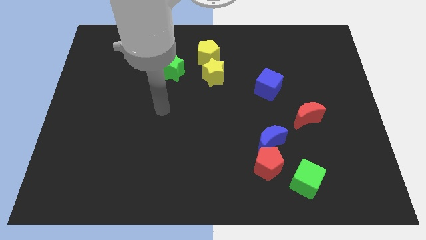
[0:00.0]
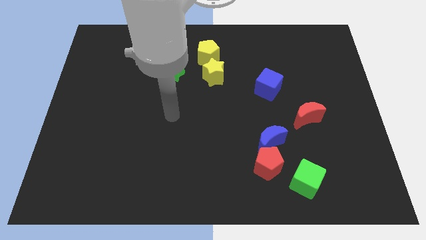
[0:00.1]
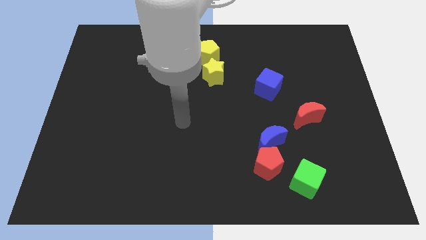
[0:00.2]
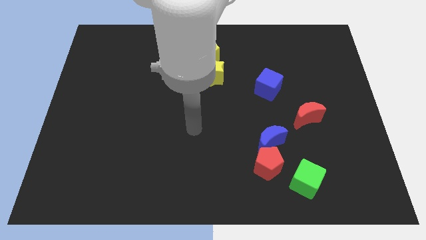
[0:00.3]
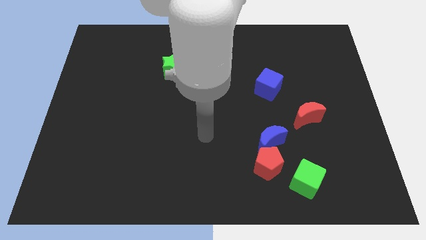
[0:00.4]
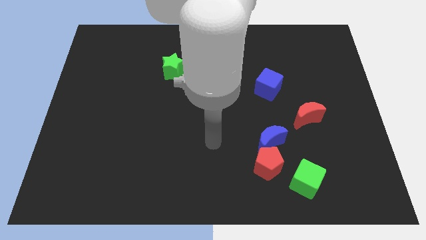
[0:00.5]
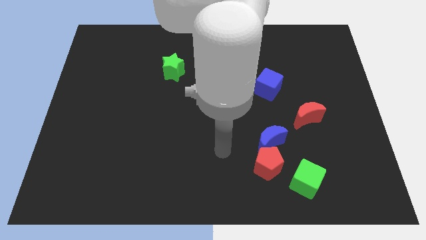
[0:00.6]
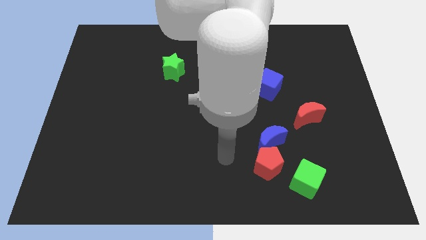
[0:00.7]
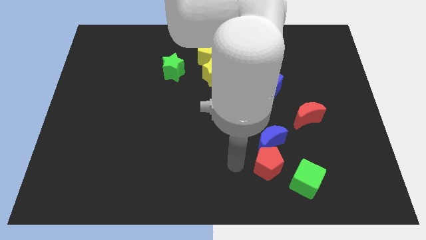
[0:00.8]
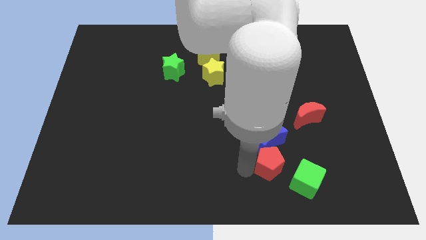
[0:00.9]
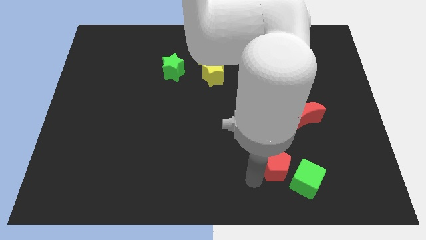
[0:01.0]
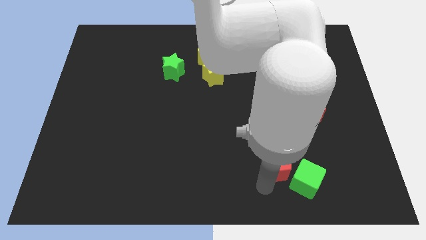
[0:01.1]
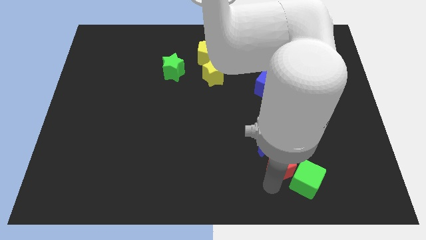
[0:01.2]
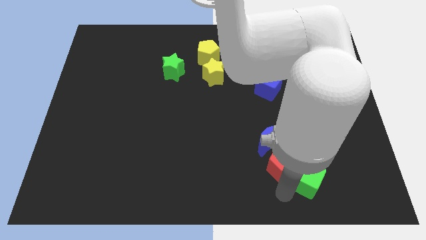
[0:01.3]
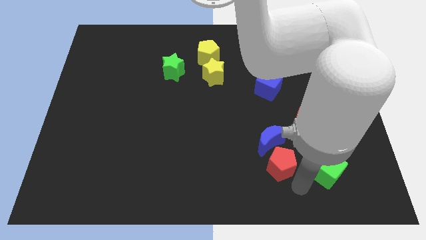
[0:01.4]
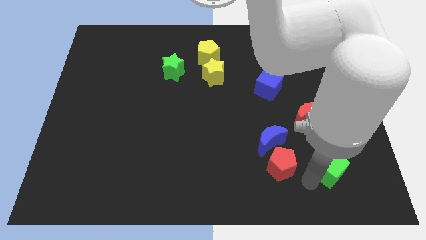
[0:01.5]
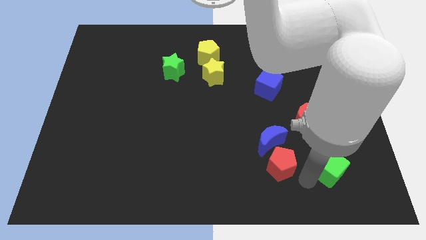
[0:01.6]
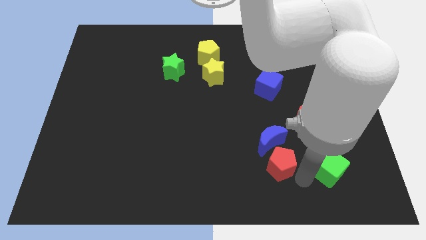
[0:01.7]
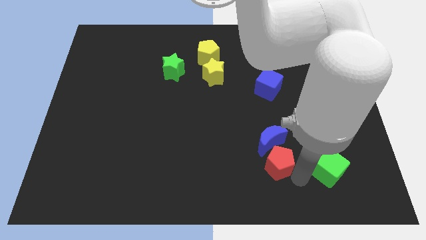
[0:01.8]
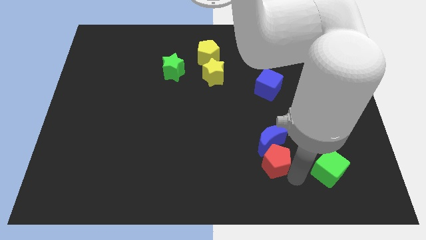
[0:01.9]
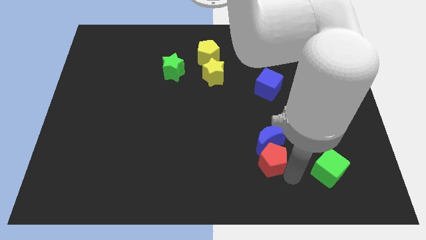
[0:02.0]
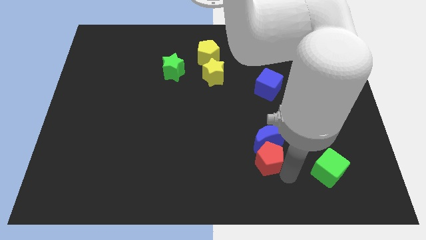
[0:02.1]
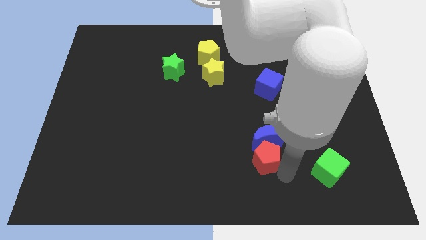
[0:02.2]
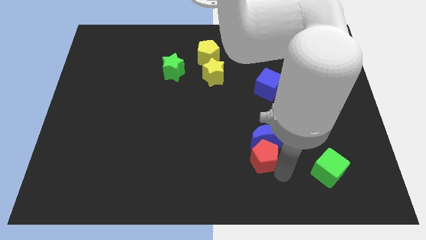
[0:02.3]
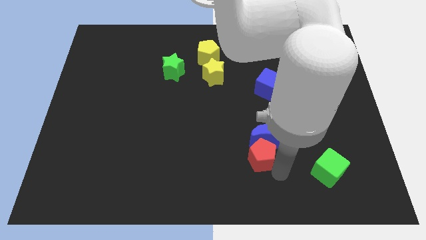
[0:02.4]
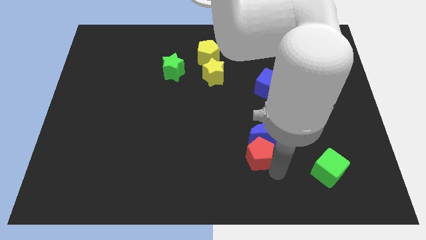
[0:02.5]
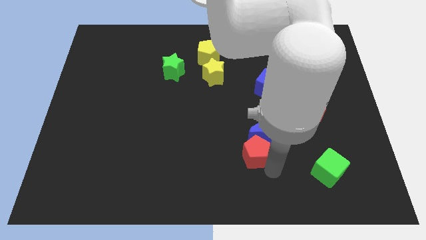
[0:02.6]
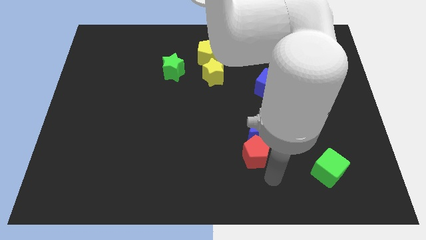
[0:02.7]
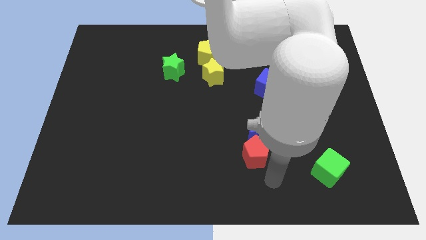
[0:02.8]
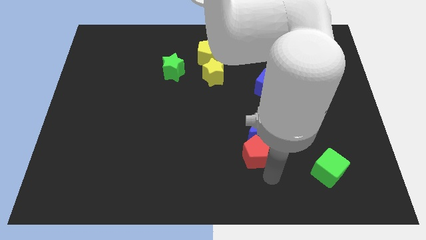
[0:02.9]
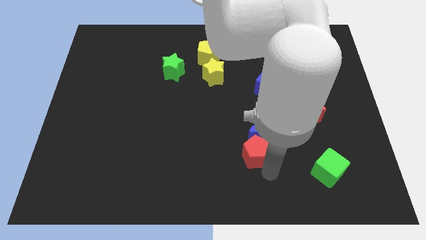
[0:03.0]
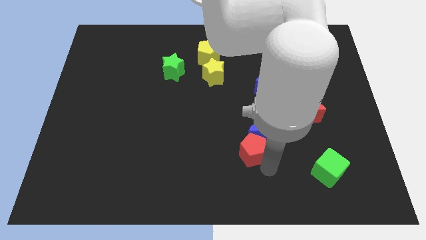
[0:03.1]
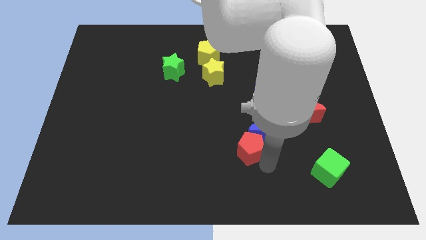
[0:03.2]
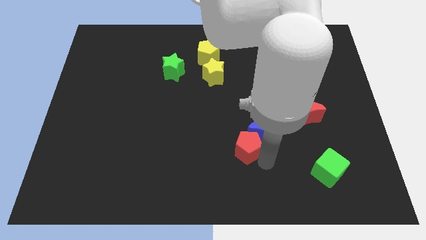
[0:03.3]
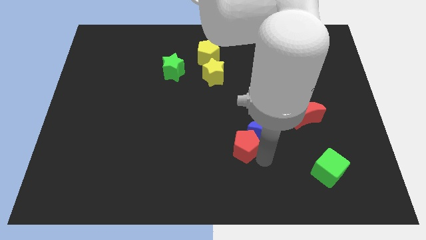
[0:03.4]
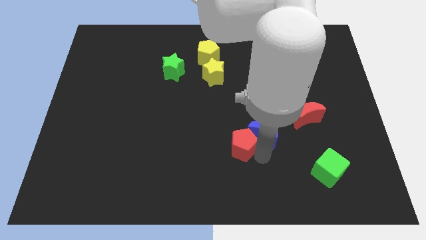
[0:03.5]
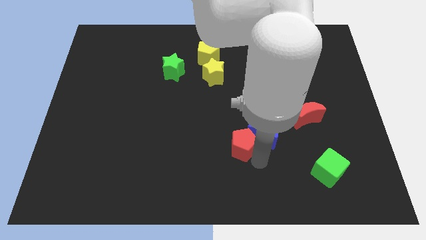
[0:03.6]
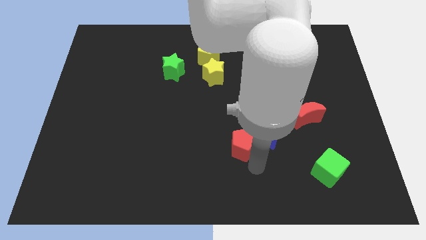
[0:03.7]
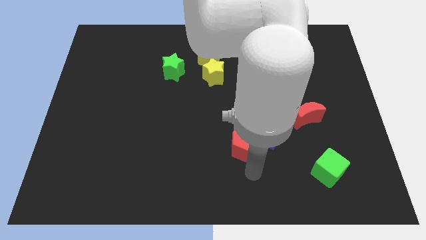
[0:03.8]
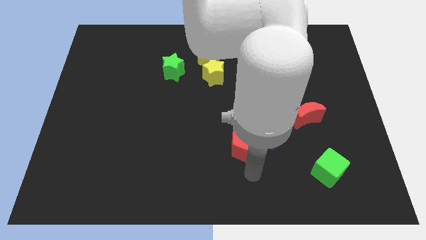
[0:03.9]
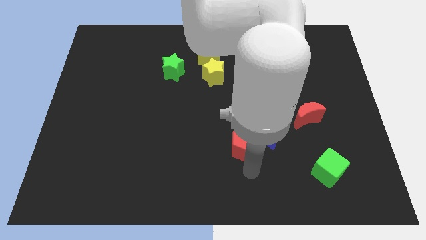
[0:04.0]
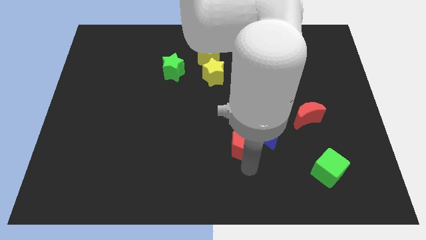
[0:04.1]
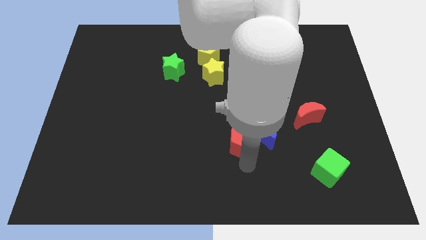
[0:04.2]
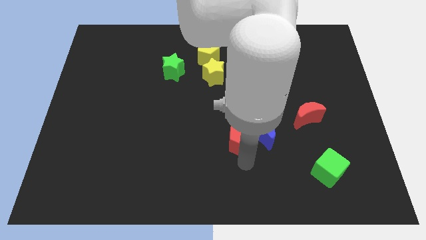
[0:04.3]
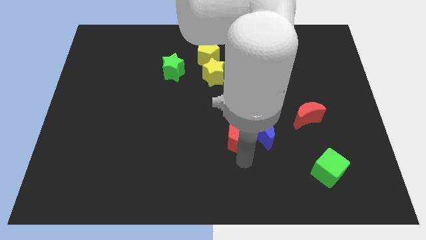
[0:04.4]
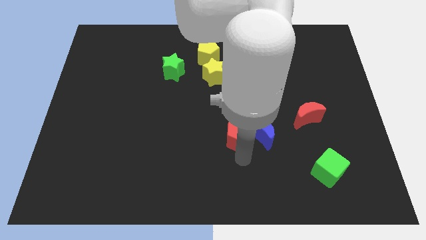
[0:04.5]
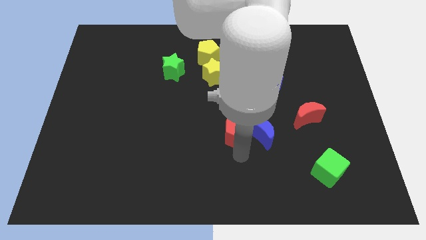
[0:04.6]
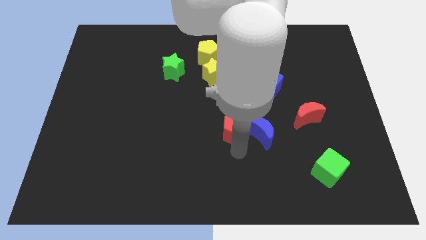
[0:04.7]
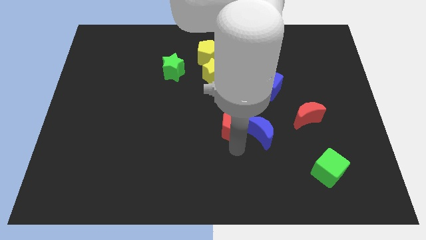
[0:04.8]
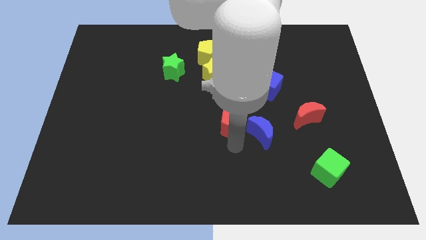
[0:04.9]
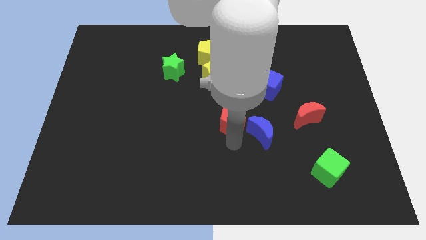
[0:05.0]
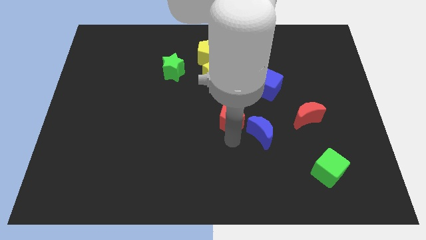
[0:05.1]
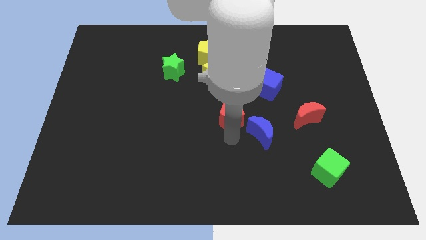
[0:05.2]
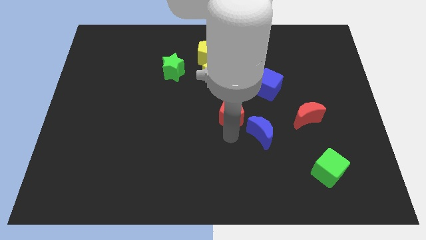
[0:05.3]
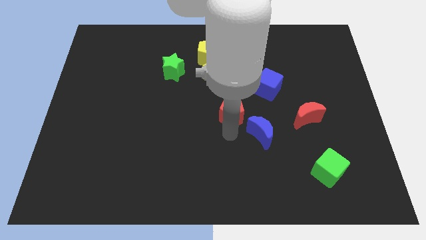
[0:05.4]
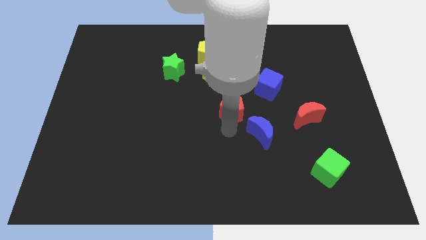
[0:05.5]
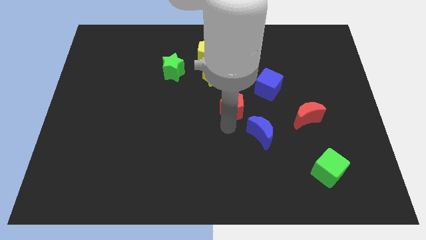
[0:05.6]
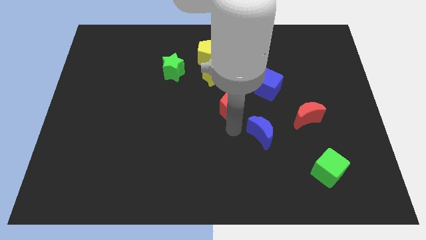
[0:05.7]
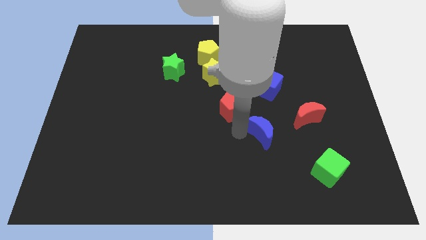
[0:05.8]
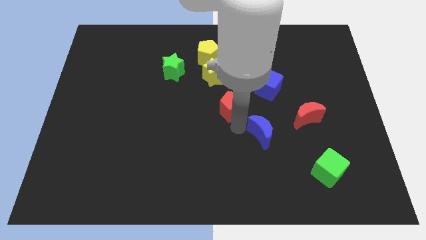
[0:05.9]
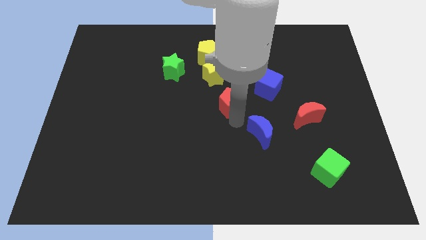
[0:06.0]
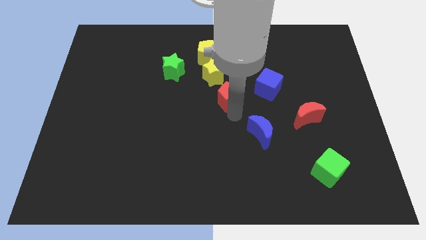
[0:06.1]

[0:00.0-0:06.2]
push the red pentagon to the left side of the blue cube

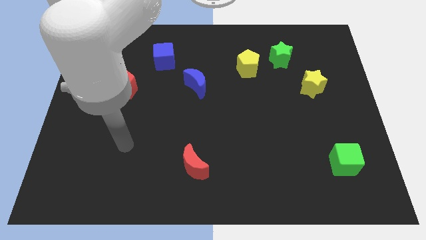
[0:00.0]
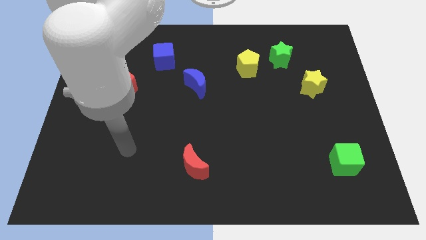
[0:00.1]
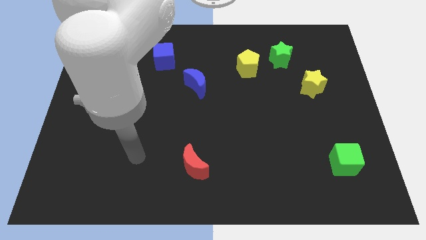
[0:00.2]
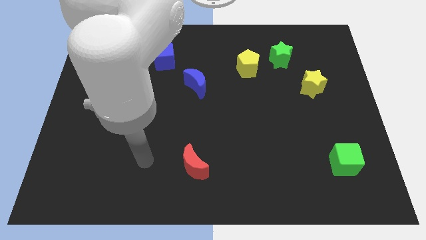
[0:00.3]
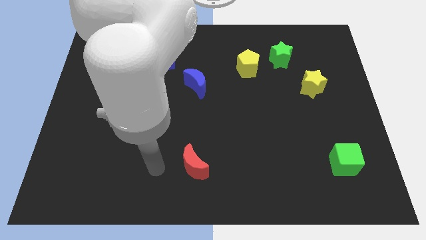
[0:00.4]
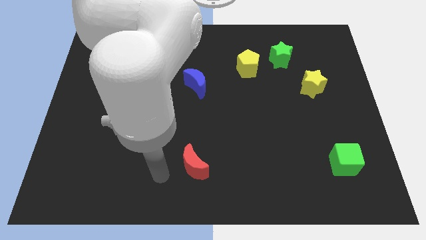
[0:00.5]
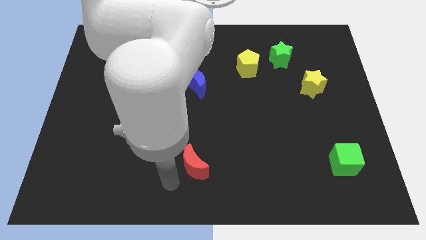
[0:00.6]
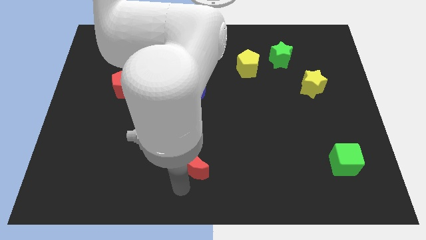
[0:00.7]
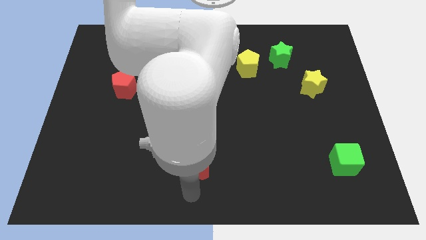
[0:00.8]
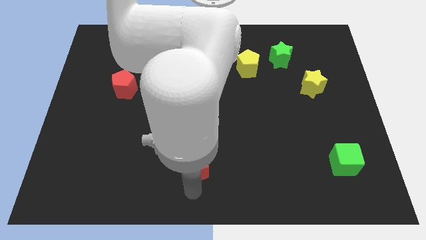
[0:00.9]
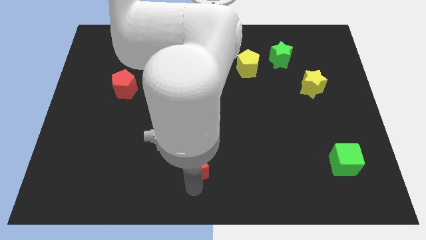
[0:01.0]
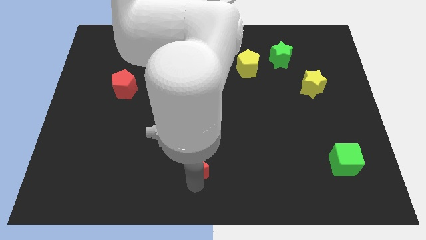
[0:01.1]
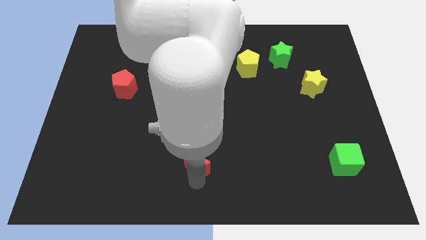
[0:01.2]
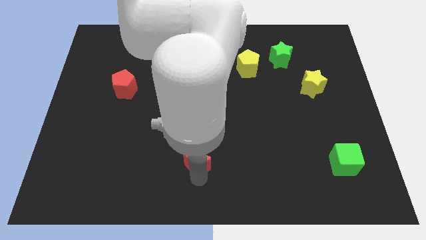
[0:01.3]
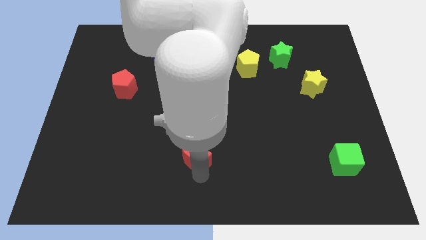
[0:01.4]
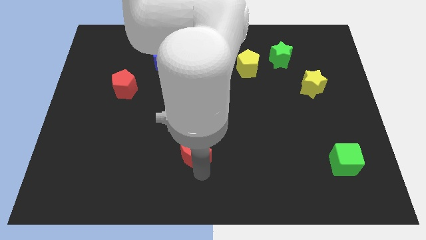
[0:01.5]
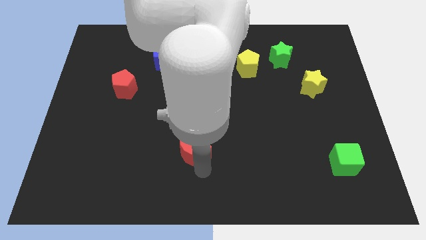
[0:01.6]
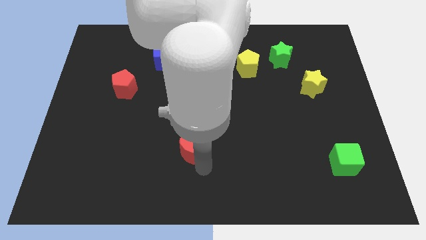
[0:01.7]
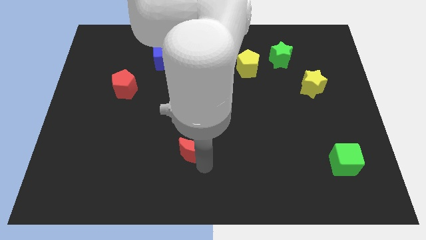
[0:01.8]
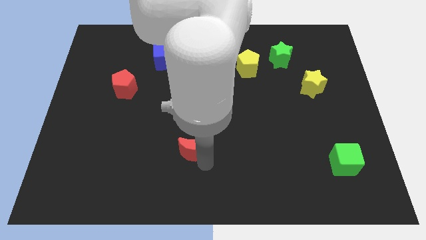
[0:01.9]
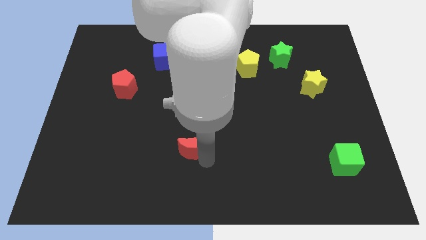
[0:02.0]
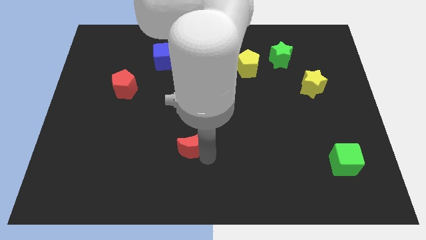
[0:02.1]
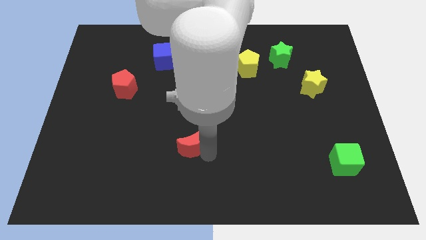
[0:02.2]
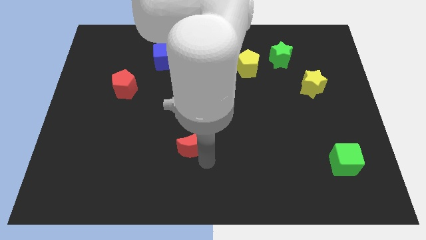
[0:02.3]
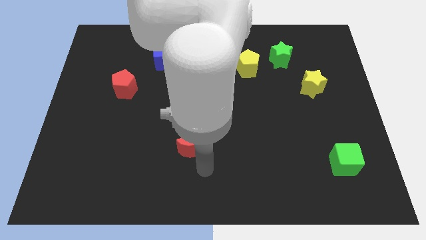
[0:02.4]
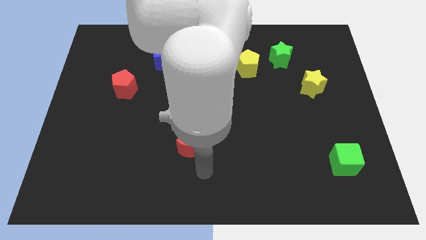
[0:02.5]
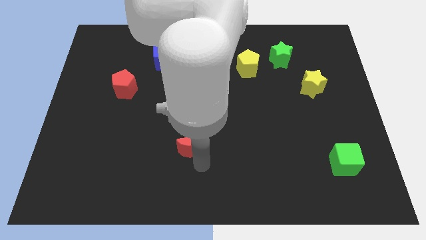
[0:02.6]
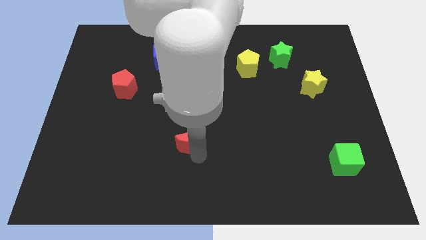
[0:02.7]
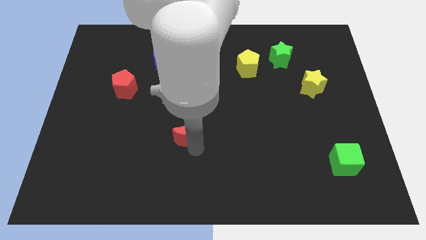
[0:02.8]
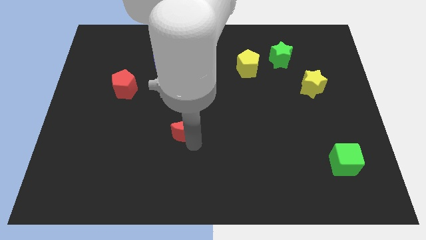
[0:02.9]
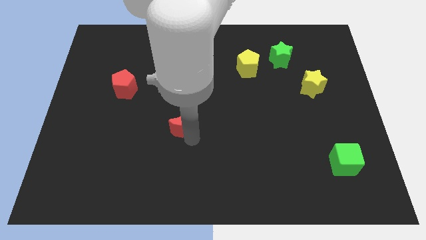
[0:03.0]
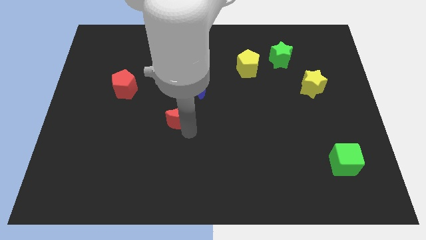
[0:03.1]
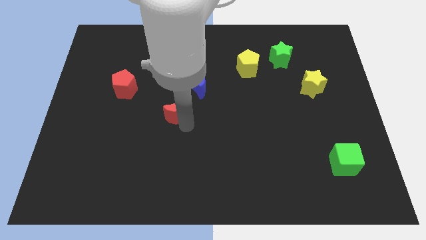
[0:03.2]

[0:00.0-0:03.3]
put the red moon to the bottom left of the blue moon
